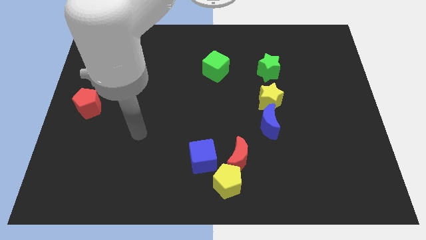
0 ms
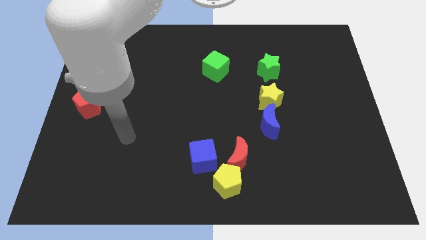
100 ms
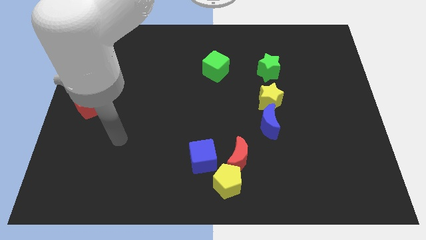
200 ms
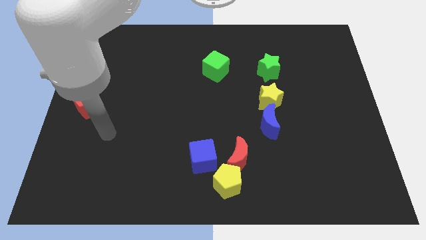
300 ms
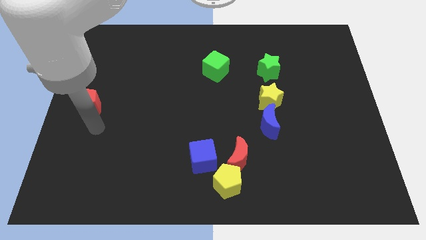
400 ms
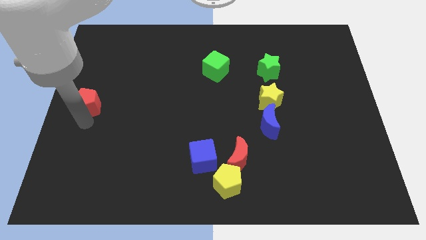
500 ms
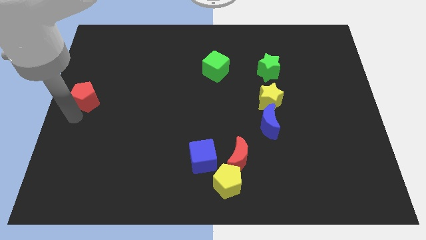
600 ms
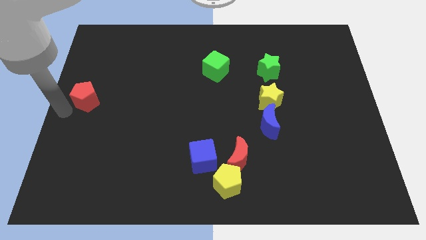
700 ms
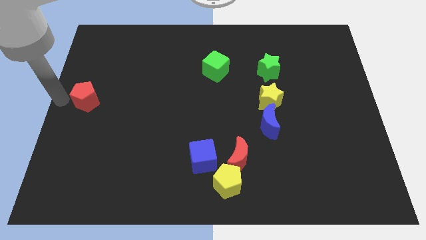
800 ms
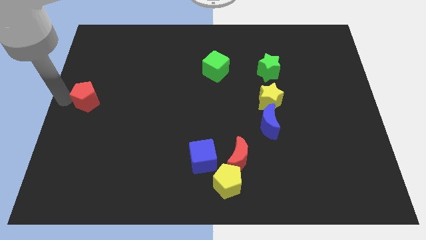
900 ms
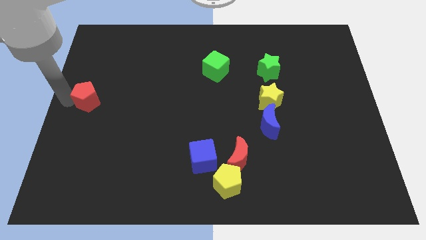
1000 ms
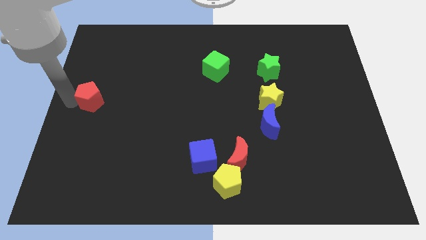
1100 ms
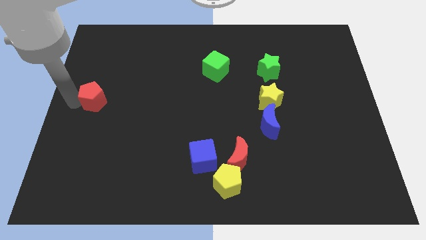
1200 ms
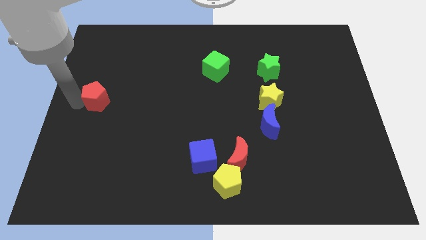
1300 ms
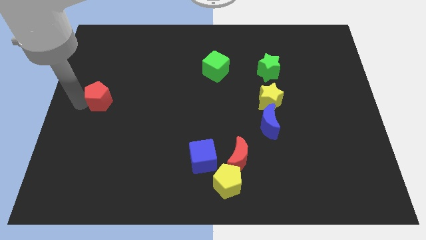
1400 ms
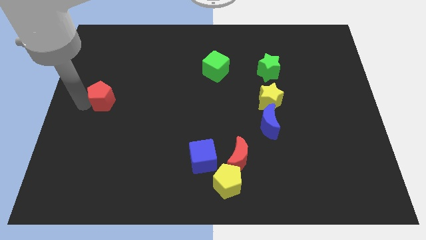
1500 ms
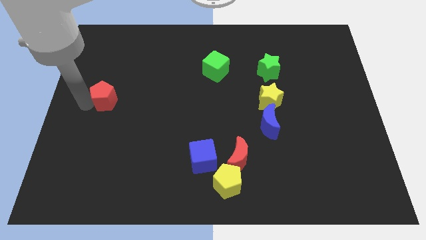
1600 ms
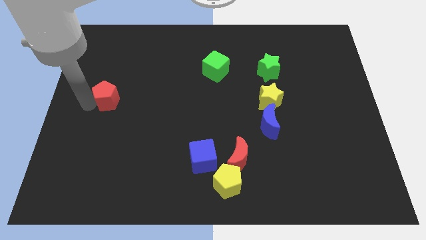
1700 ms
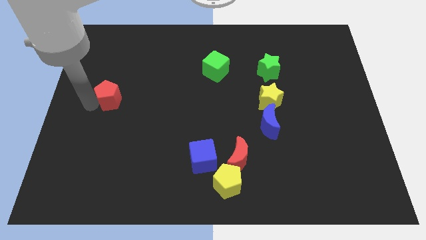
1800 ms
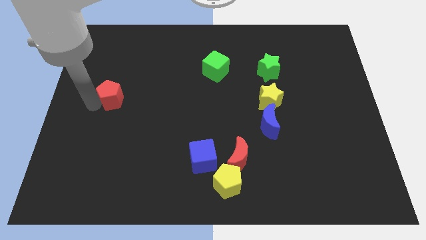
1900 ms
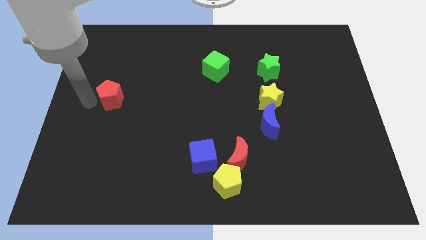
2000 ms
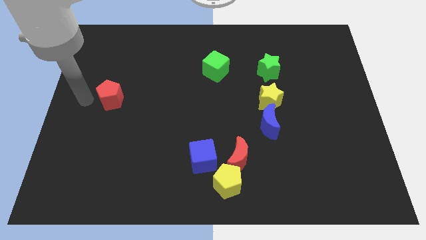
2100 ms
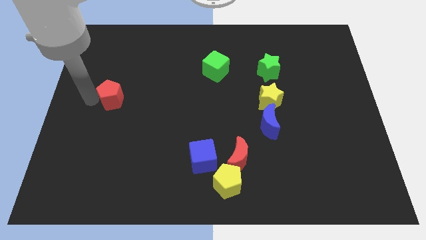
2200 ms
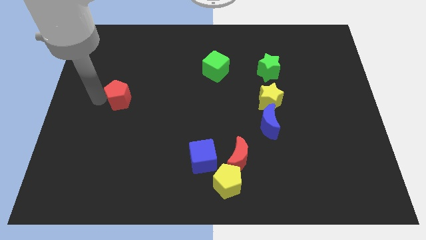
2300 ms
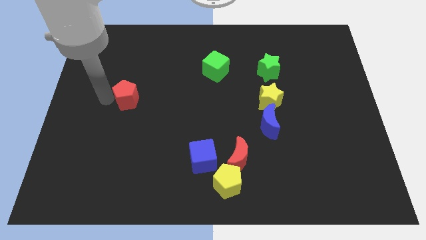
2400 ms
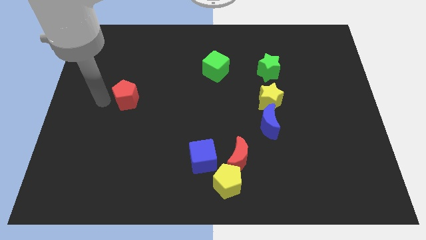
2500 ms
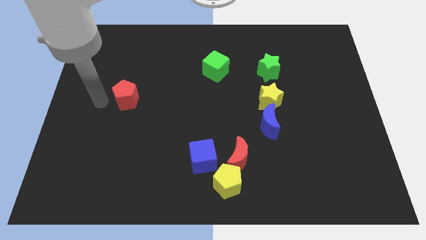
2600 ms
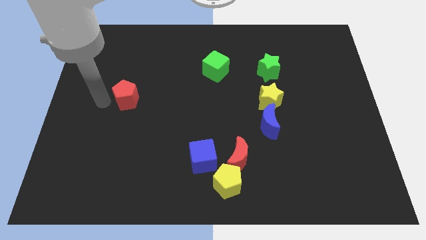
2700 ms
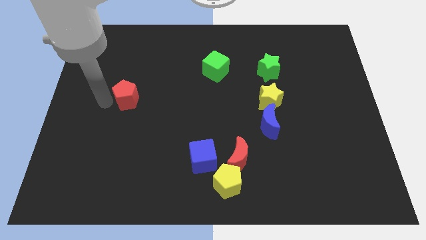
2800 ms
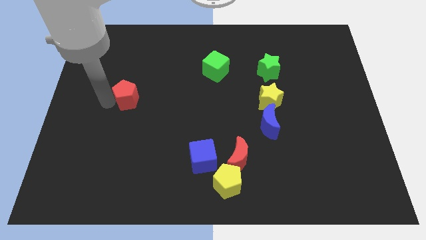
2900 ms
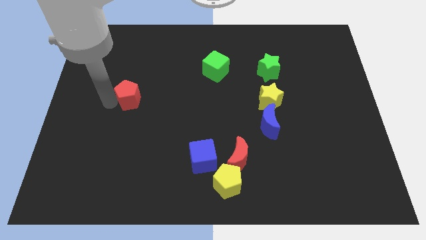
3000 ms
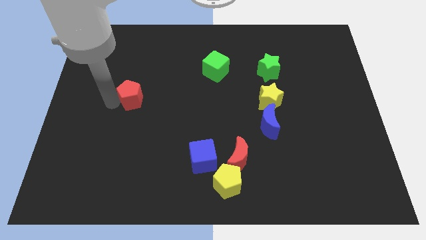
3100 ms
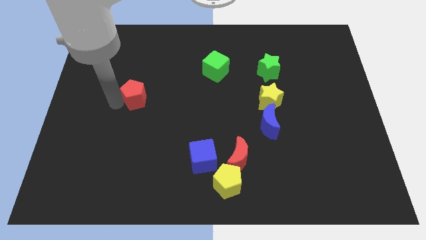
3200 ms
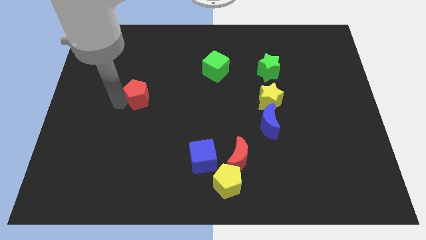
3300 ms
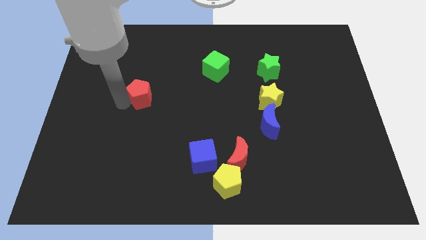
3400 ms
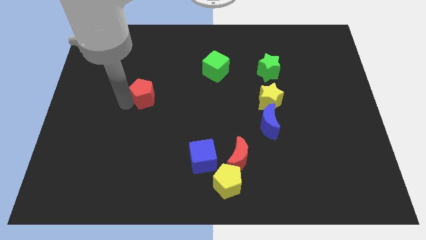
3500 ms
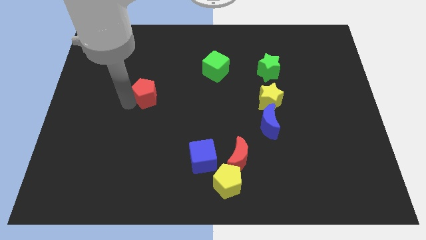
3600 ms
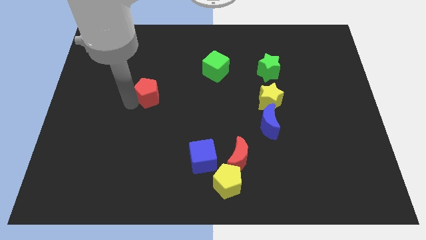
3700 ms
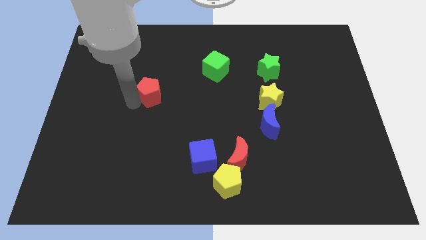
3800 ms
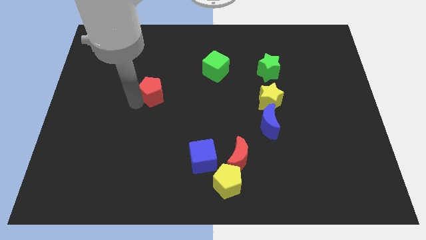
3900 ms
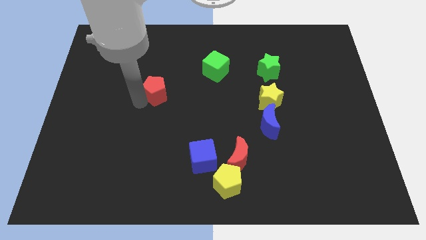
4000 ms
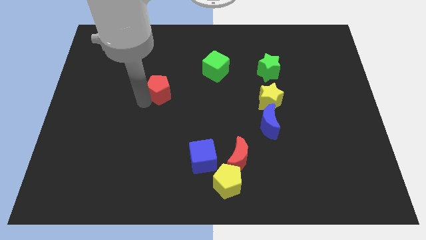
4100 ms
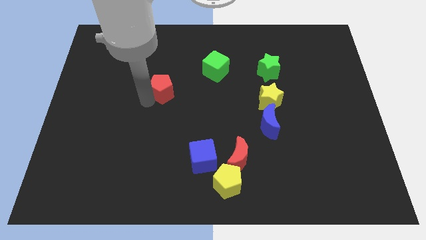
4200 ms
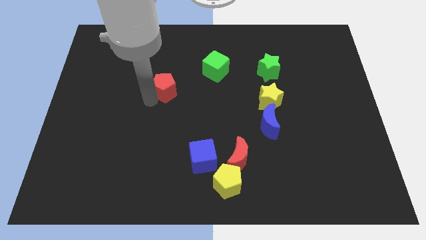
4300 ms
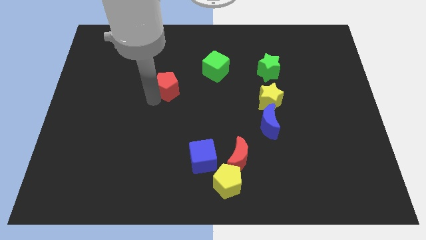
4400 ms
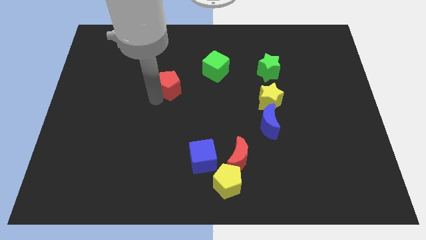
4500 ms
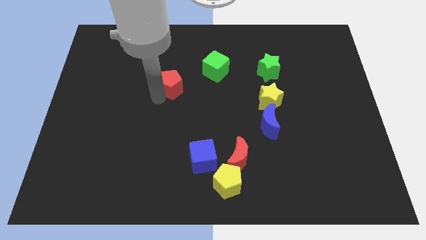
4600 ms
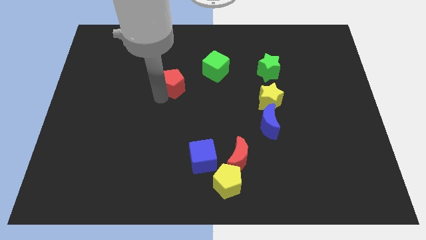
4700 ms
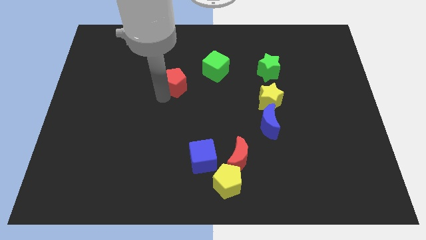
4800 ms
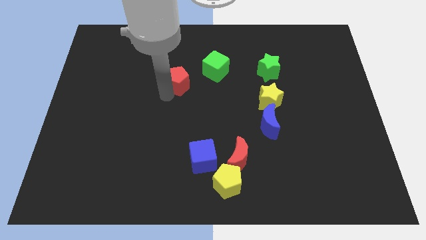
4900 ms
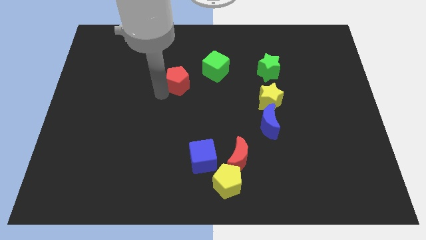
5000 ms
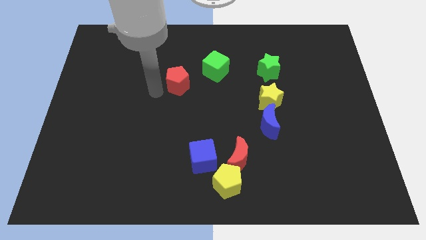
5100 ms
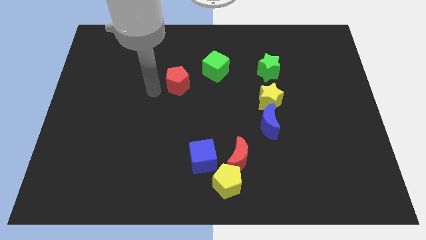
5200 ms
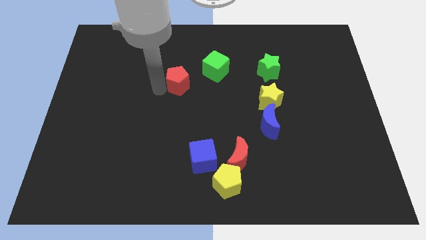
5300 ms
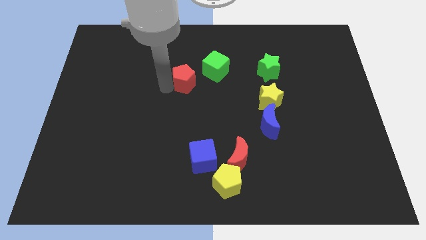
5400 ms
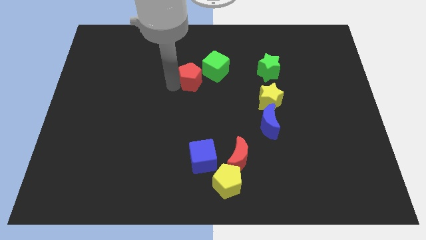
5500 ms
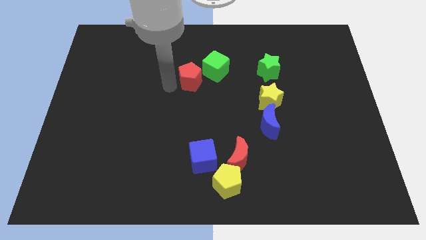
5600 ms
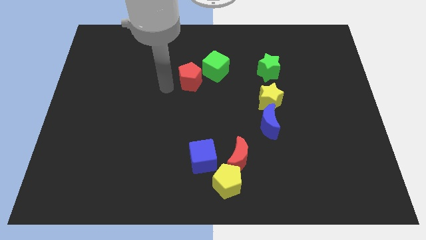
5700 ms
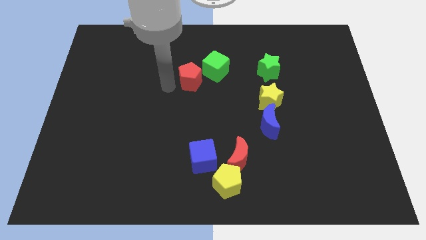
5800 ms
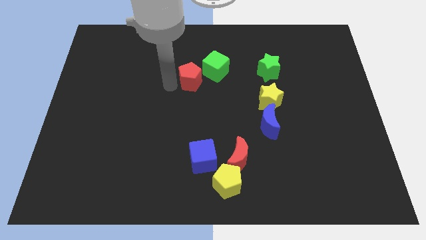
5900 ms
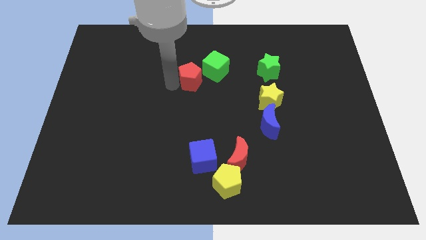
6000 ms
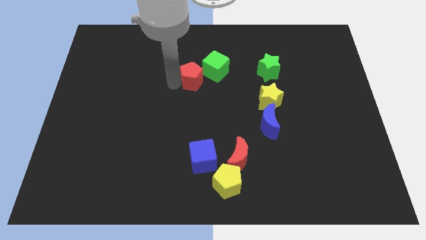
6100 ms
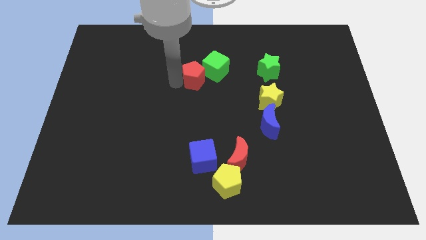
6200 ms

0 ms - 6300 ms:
slide the red pentagon towards the green cube

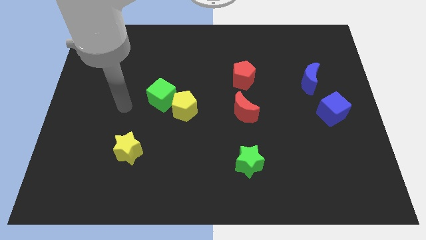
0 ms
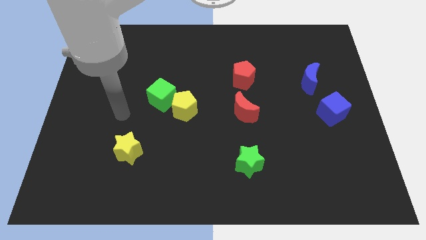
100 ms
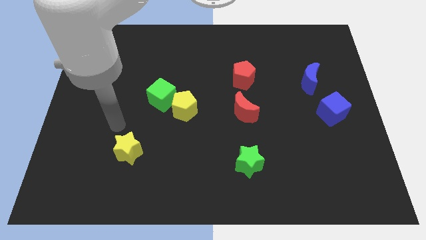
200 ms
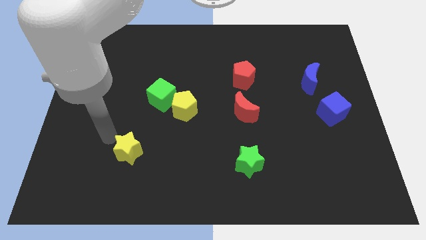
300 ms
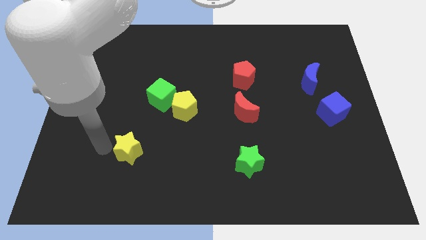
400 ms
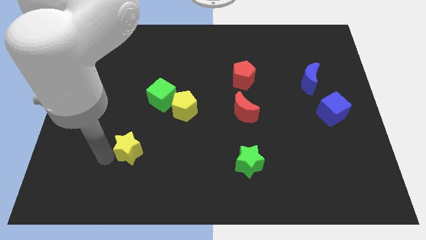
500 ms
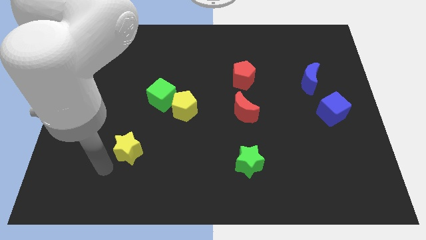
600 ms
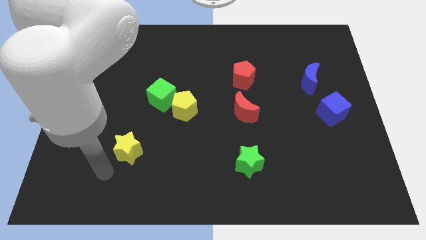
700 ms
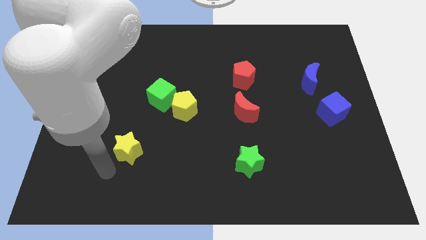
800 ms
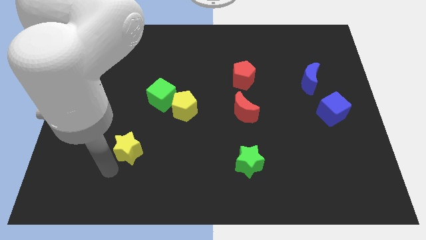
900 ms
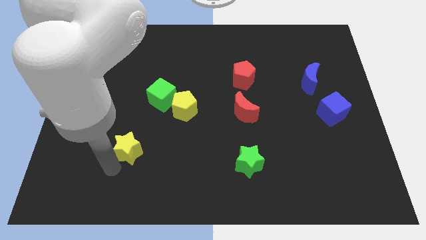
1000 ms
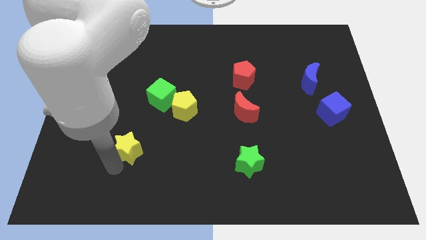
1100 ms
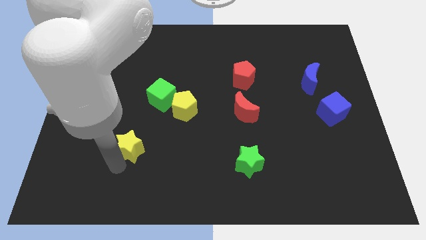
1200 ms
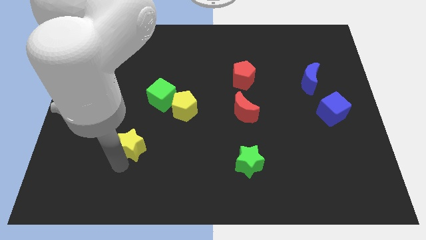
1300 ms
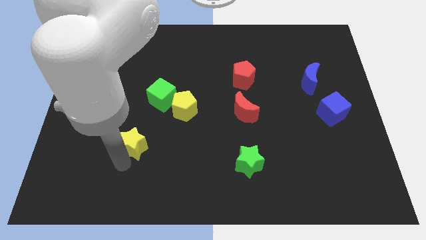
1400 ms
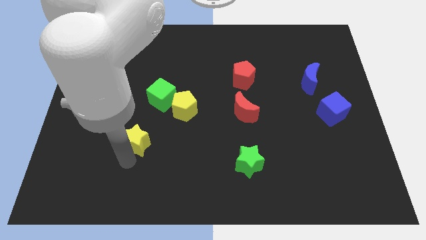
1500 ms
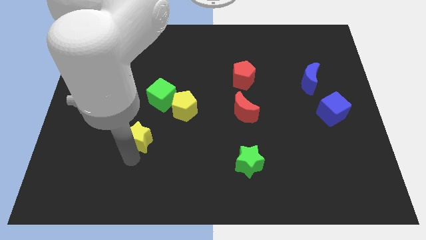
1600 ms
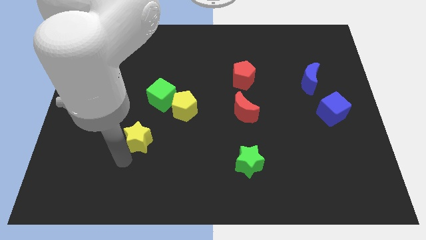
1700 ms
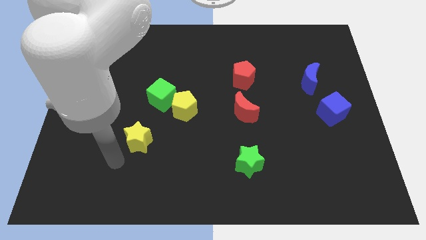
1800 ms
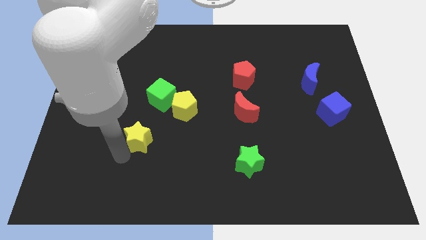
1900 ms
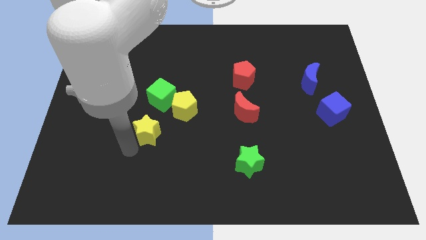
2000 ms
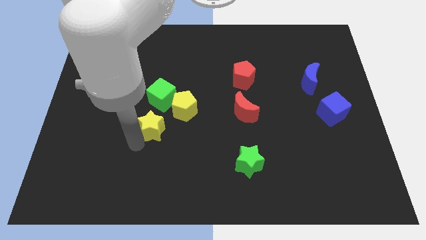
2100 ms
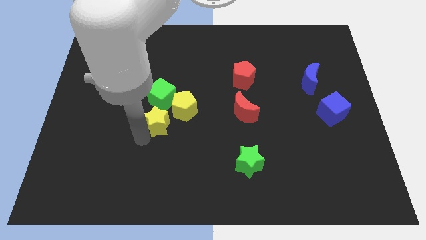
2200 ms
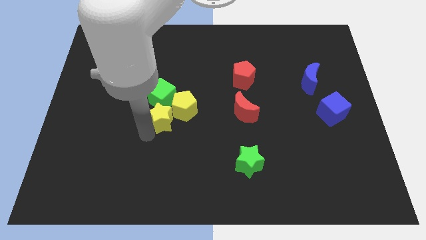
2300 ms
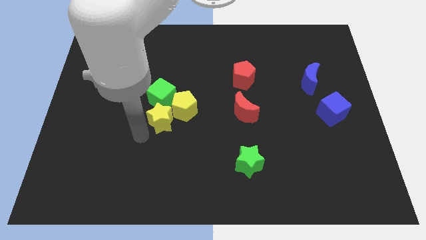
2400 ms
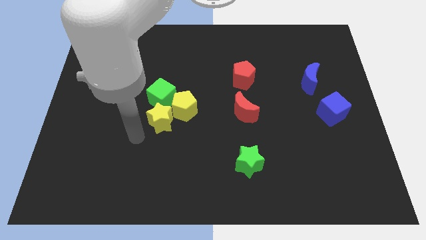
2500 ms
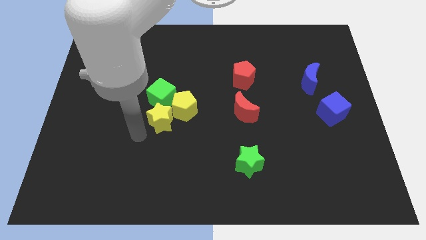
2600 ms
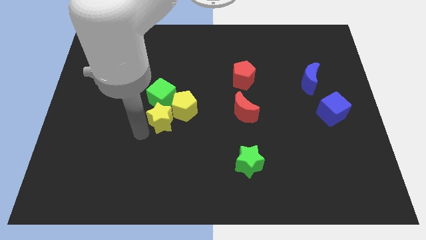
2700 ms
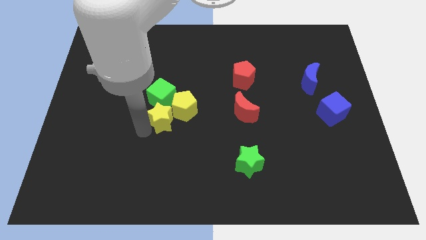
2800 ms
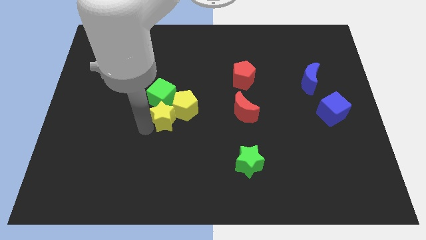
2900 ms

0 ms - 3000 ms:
move the yellow star towards the yellow pentagon
